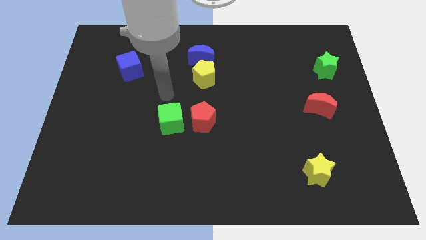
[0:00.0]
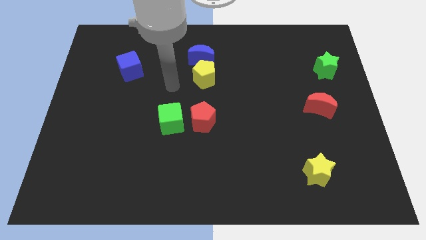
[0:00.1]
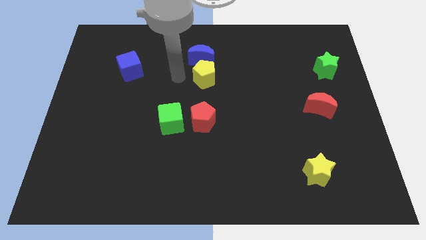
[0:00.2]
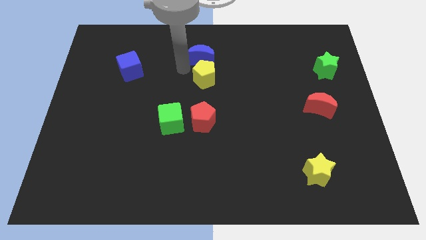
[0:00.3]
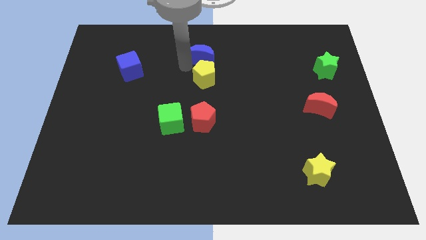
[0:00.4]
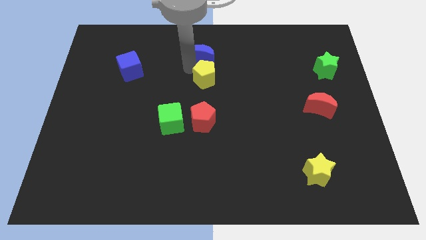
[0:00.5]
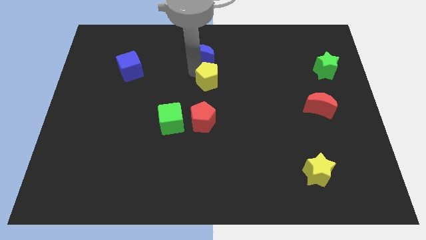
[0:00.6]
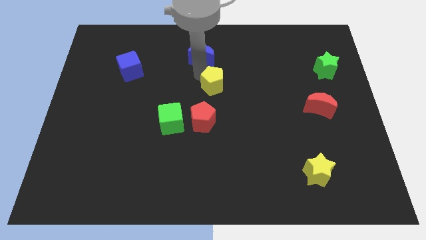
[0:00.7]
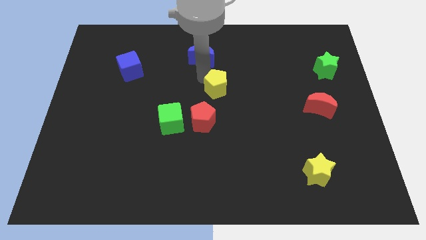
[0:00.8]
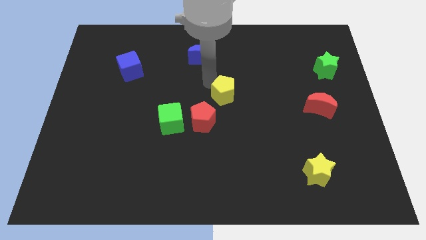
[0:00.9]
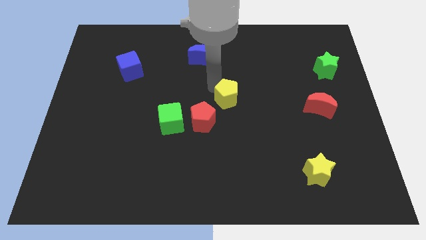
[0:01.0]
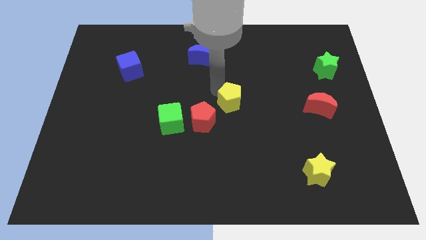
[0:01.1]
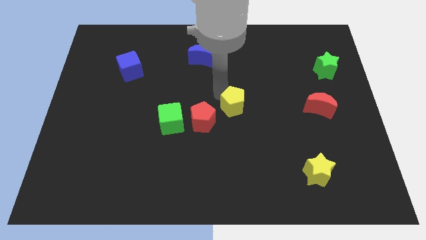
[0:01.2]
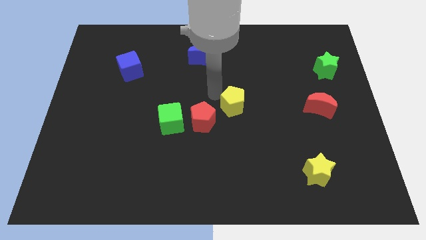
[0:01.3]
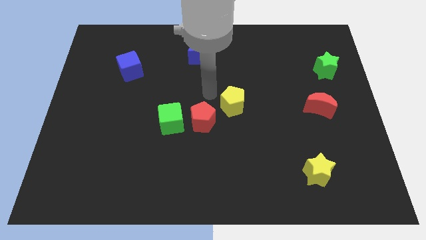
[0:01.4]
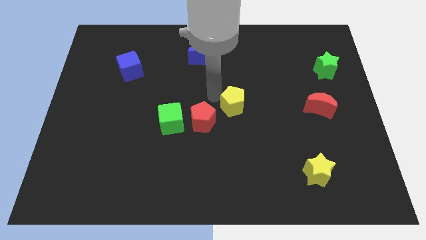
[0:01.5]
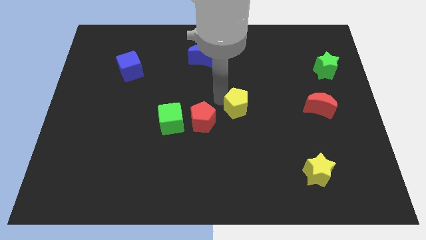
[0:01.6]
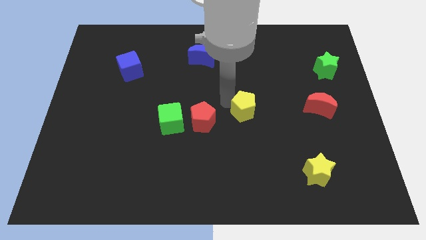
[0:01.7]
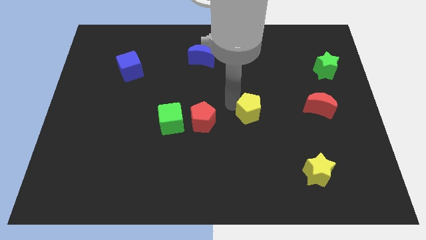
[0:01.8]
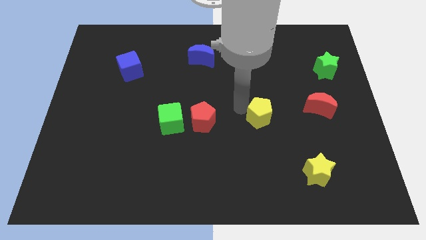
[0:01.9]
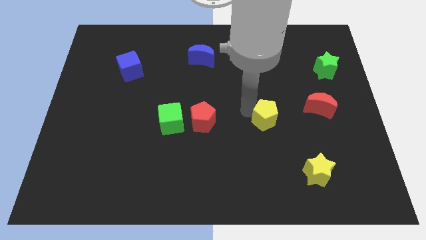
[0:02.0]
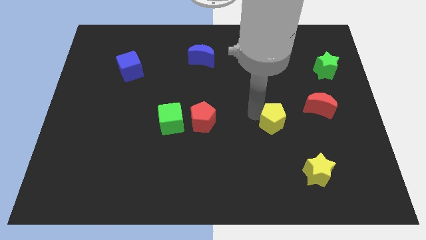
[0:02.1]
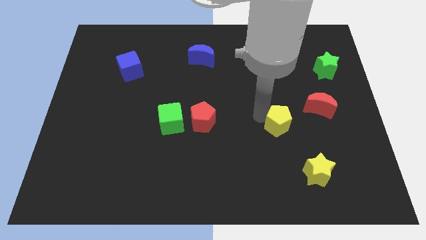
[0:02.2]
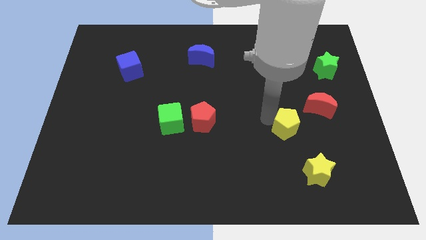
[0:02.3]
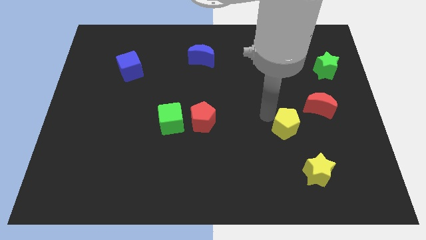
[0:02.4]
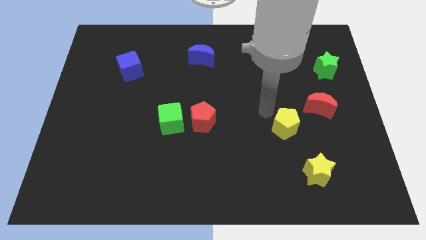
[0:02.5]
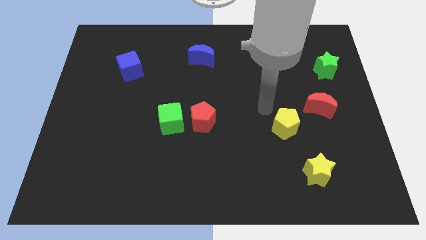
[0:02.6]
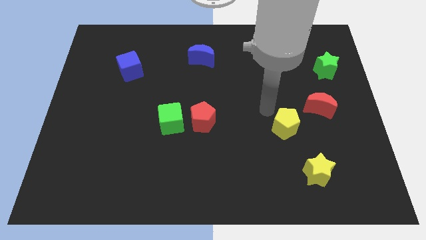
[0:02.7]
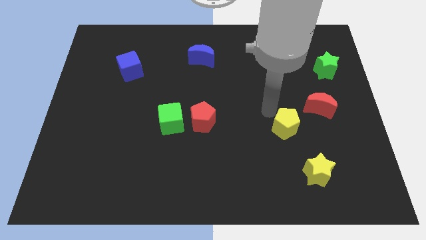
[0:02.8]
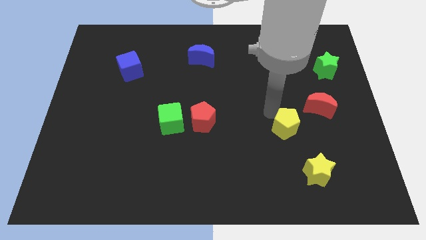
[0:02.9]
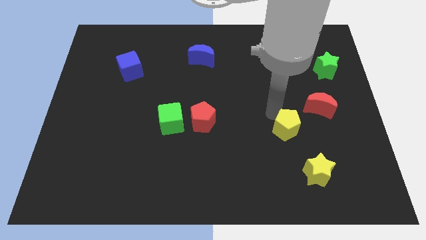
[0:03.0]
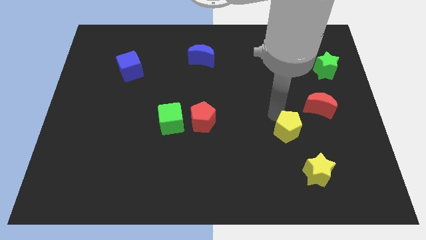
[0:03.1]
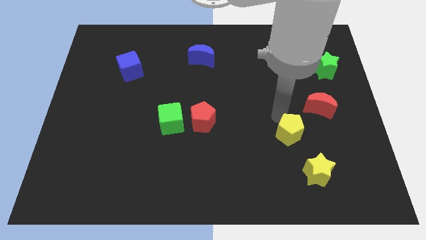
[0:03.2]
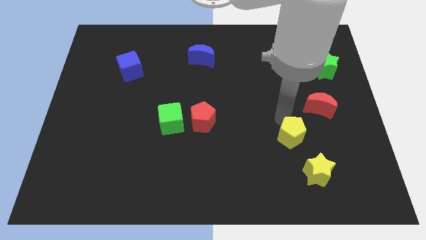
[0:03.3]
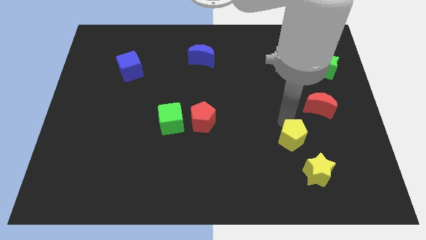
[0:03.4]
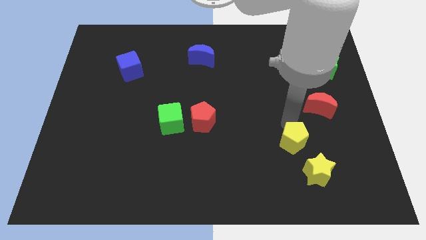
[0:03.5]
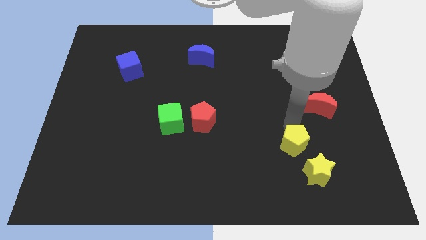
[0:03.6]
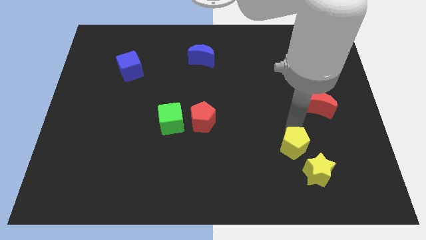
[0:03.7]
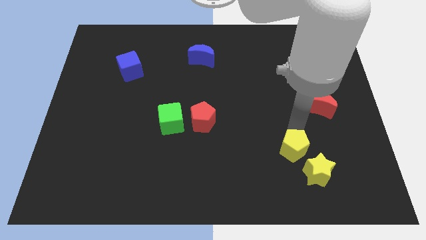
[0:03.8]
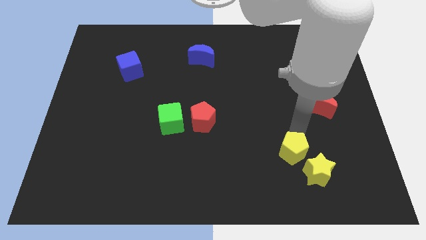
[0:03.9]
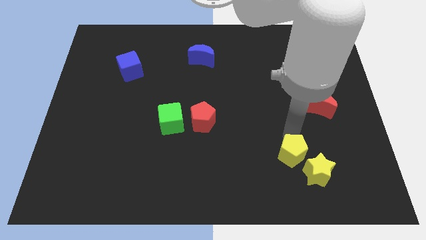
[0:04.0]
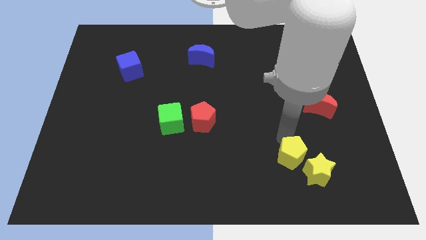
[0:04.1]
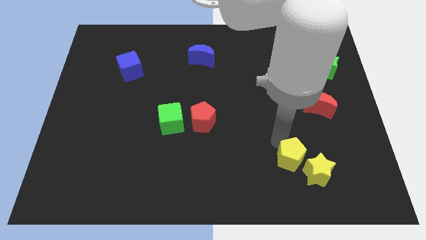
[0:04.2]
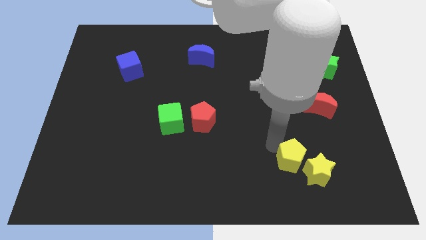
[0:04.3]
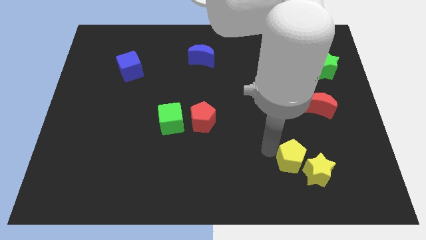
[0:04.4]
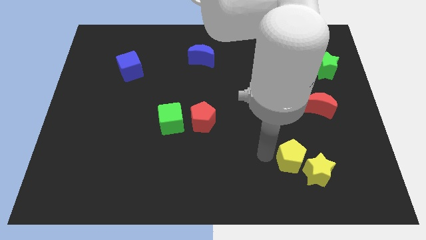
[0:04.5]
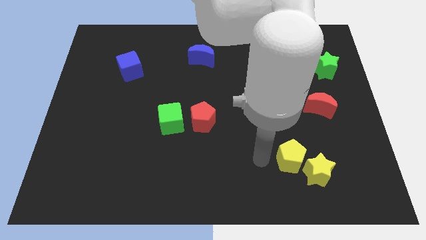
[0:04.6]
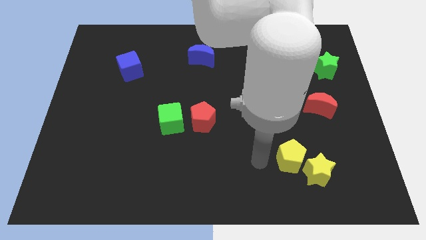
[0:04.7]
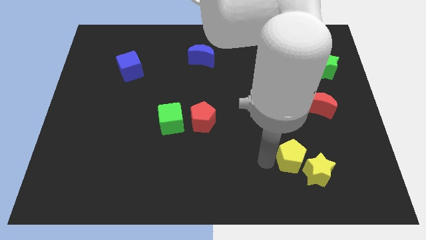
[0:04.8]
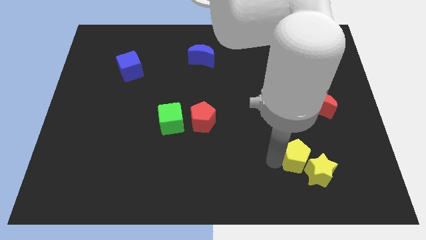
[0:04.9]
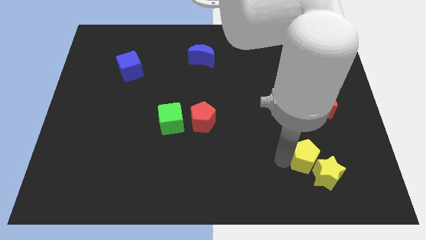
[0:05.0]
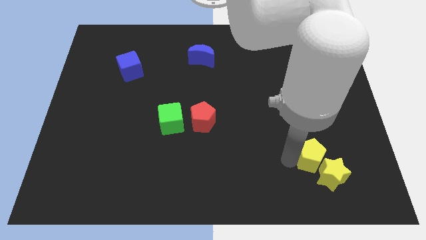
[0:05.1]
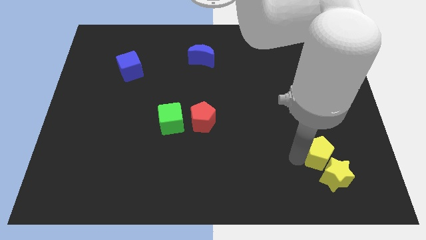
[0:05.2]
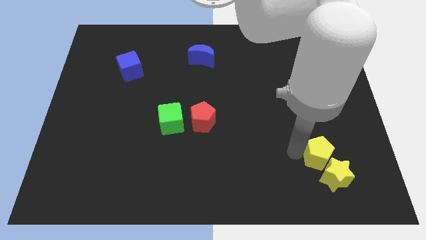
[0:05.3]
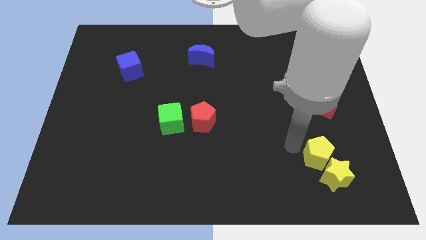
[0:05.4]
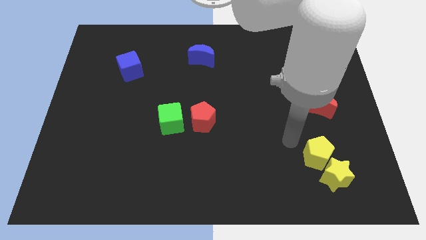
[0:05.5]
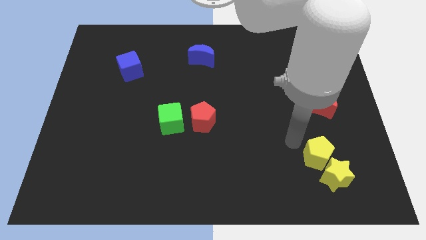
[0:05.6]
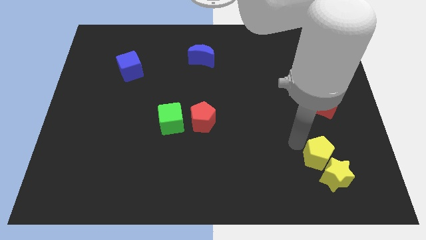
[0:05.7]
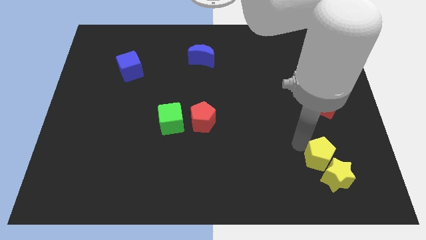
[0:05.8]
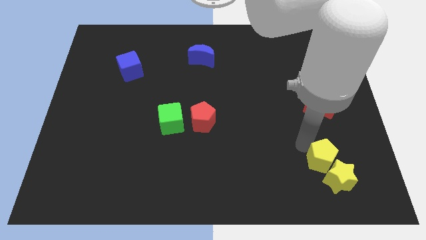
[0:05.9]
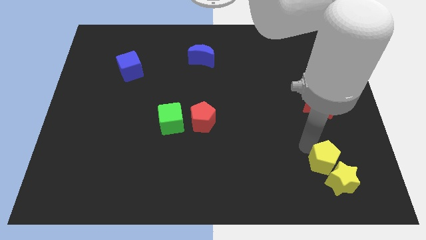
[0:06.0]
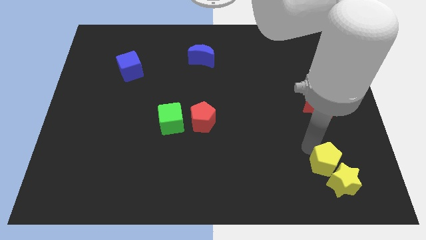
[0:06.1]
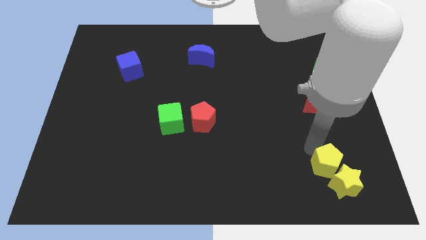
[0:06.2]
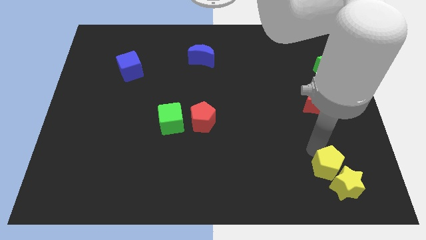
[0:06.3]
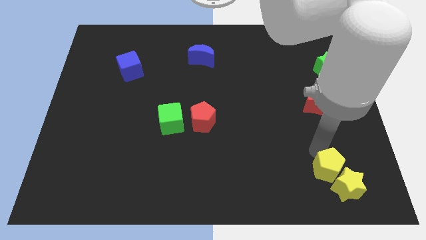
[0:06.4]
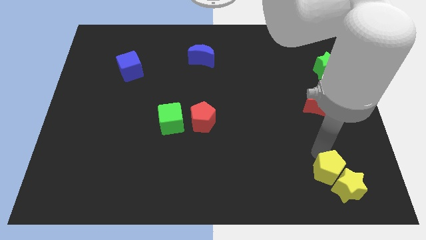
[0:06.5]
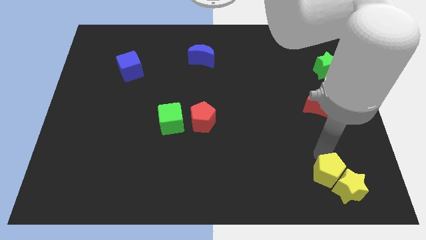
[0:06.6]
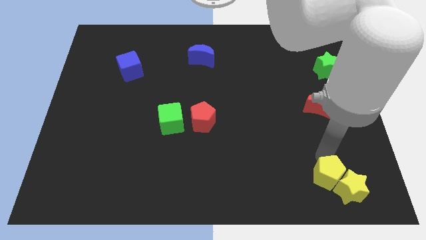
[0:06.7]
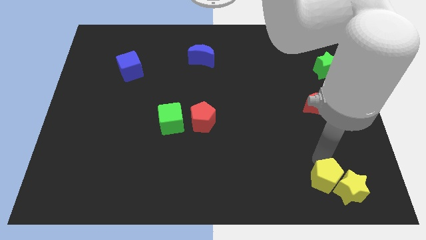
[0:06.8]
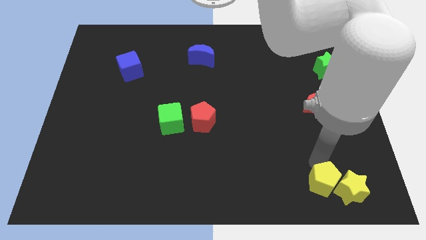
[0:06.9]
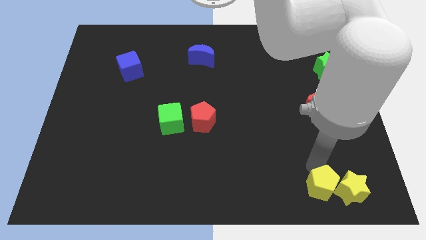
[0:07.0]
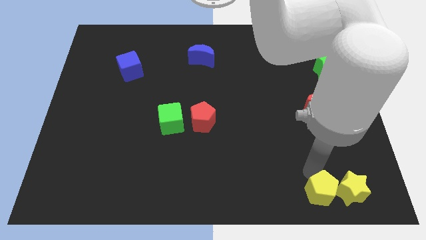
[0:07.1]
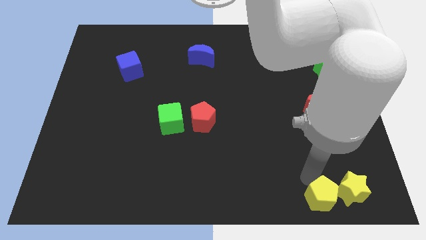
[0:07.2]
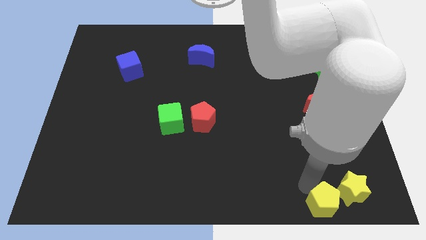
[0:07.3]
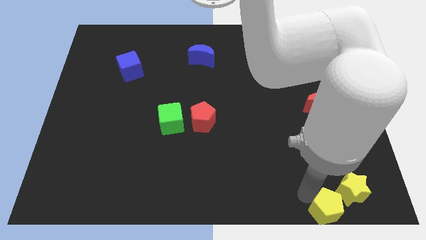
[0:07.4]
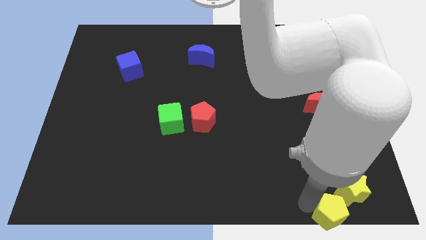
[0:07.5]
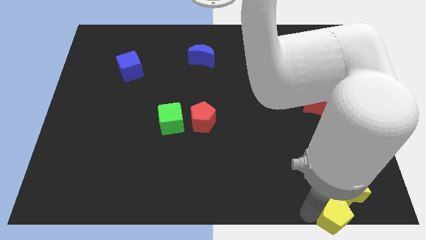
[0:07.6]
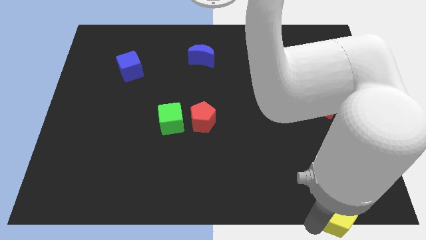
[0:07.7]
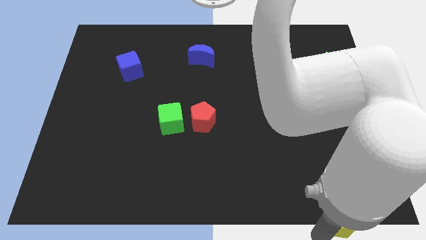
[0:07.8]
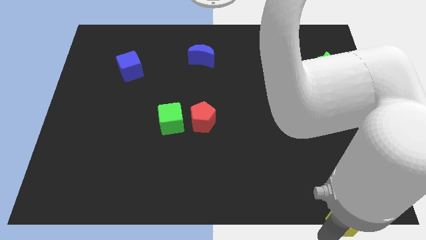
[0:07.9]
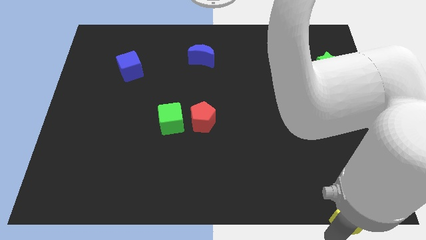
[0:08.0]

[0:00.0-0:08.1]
push the yellow pentagon to the bottom right of the board
